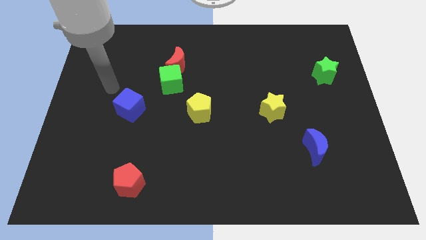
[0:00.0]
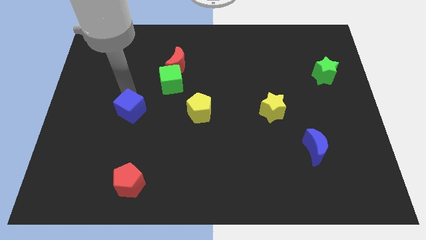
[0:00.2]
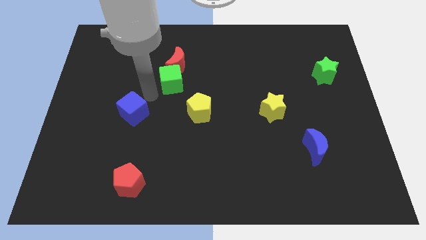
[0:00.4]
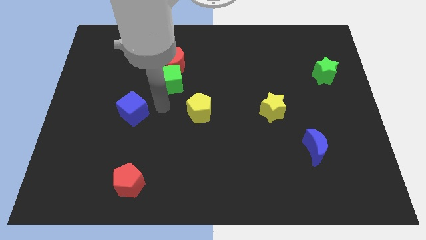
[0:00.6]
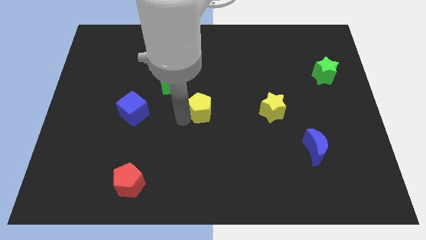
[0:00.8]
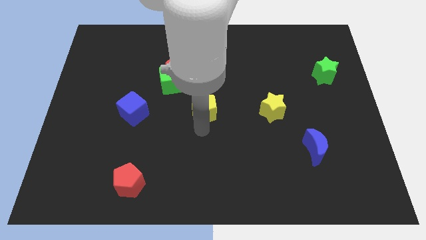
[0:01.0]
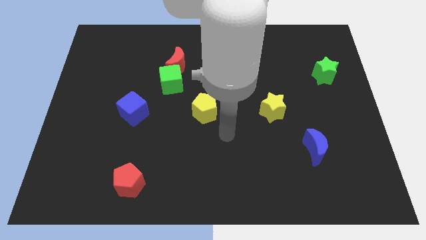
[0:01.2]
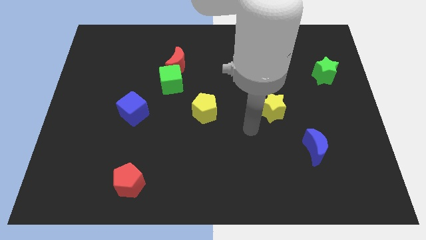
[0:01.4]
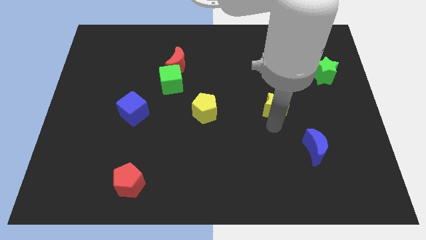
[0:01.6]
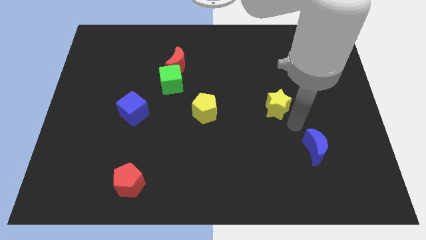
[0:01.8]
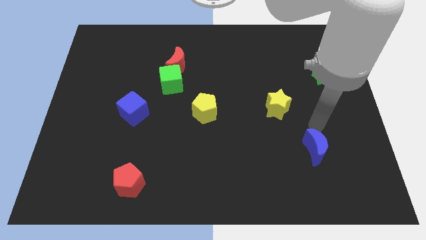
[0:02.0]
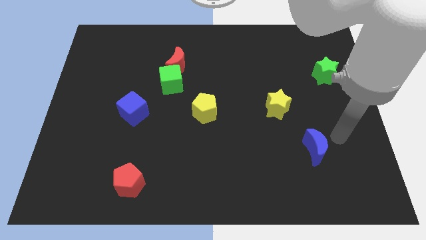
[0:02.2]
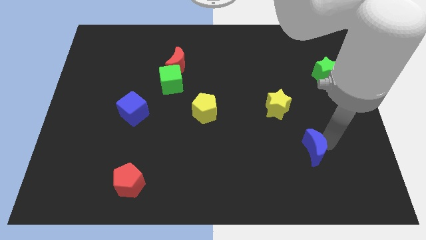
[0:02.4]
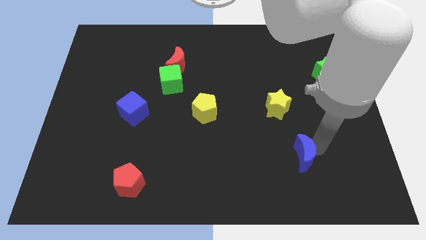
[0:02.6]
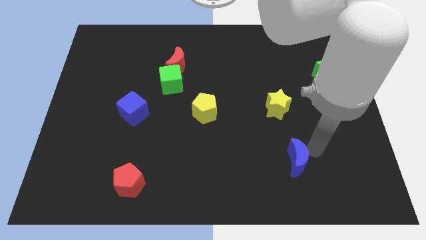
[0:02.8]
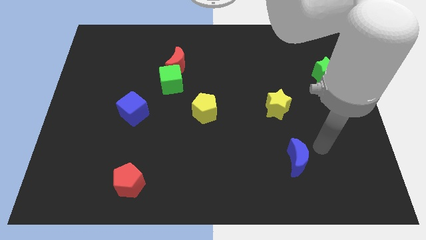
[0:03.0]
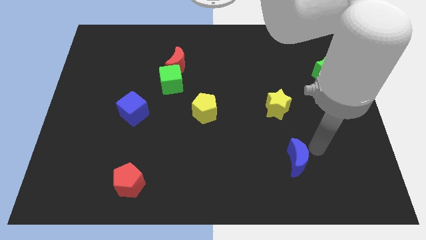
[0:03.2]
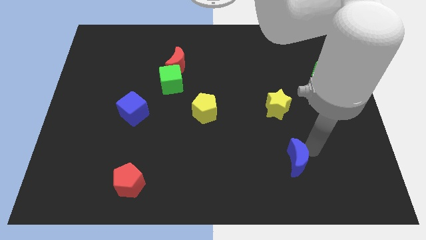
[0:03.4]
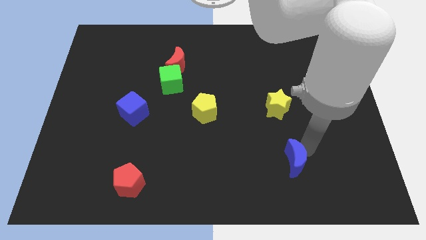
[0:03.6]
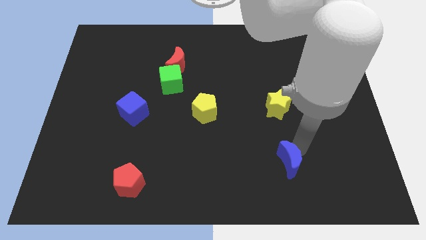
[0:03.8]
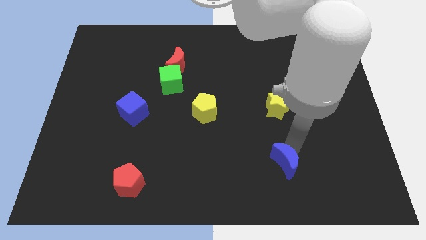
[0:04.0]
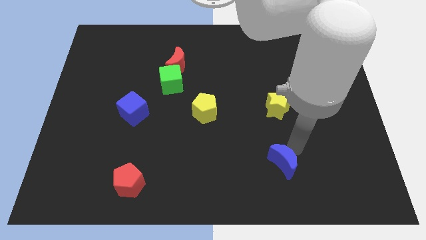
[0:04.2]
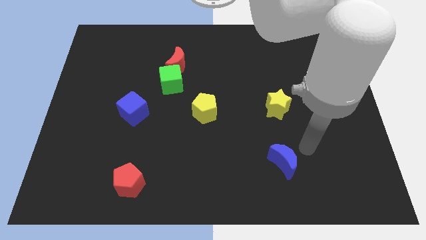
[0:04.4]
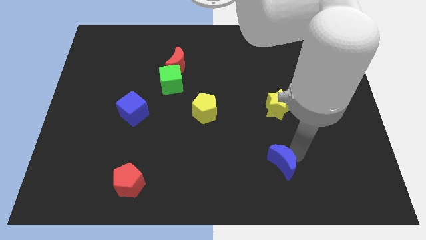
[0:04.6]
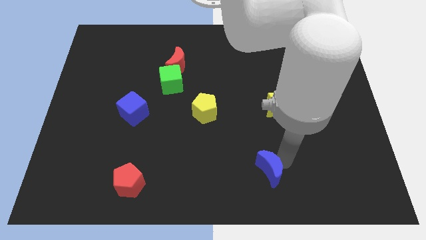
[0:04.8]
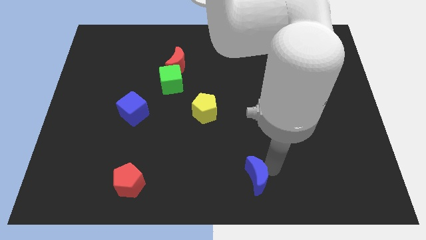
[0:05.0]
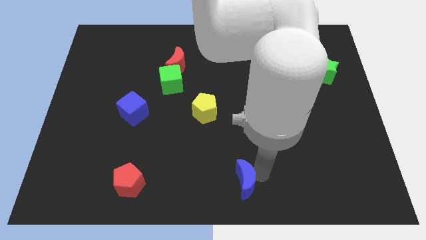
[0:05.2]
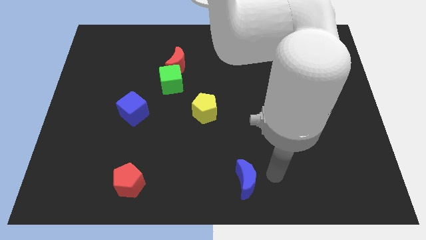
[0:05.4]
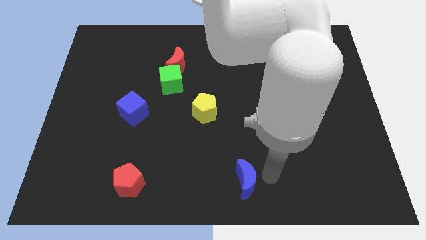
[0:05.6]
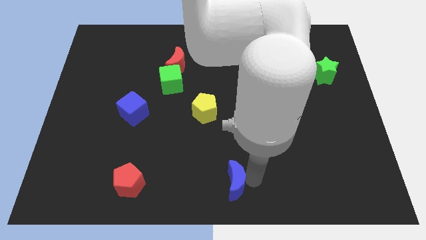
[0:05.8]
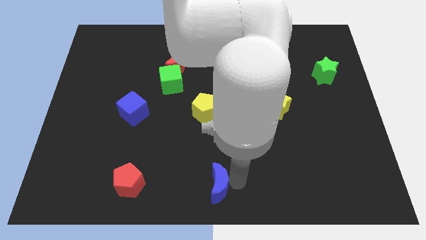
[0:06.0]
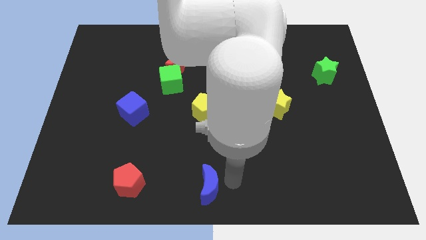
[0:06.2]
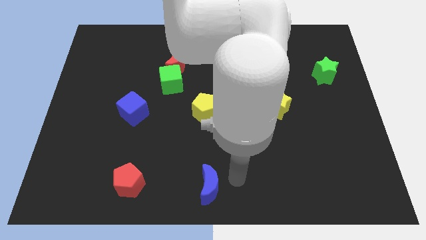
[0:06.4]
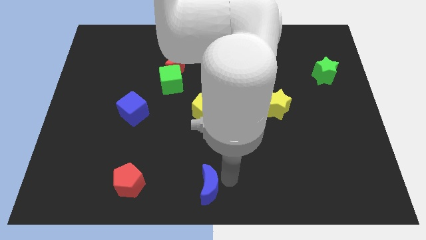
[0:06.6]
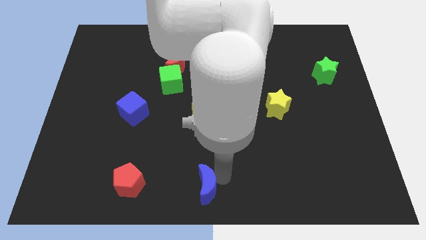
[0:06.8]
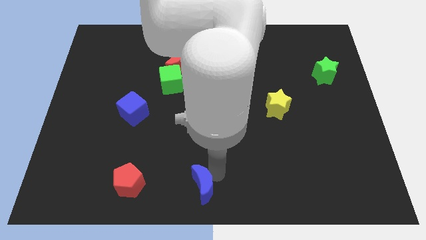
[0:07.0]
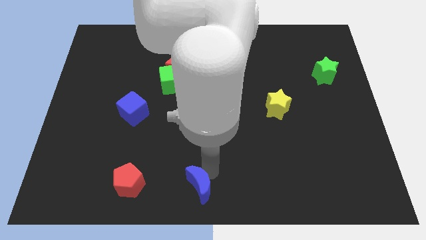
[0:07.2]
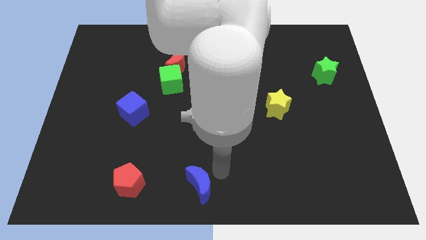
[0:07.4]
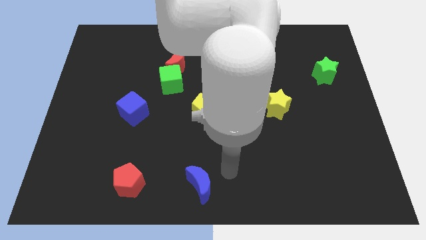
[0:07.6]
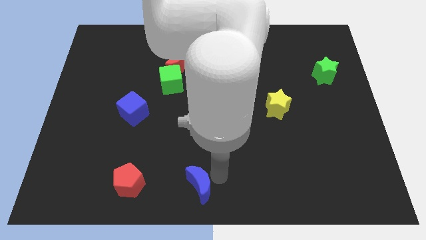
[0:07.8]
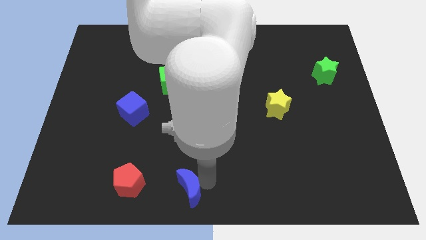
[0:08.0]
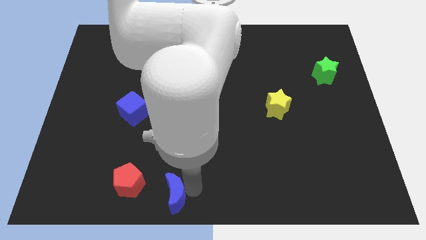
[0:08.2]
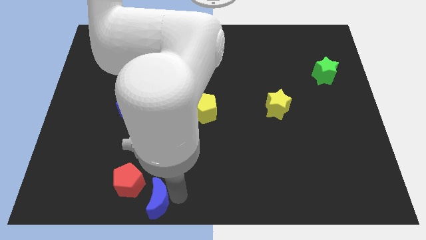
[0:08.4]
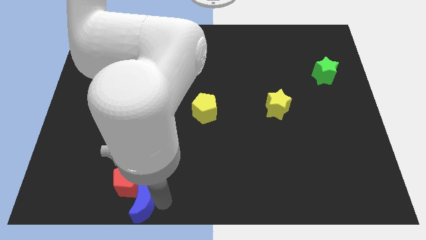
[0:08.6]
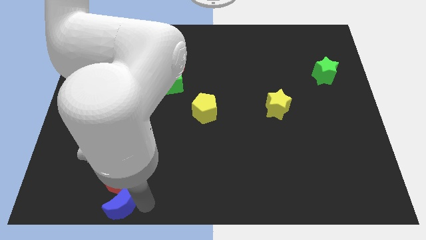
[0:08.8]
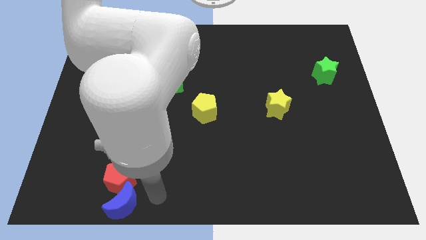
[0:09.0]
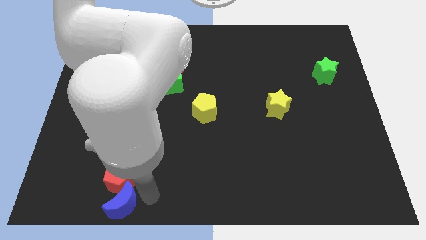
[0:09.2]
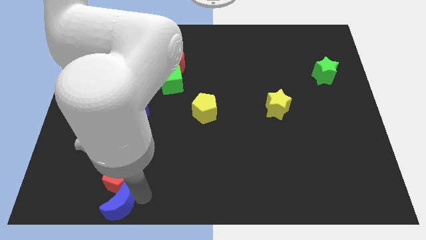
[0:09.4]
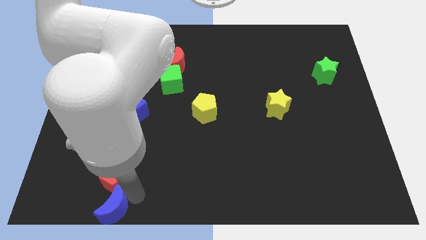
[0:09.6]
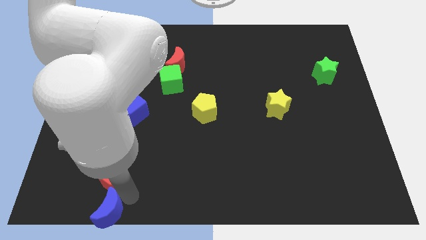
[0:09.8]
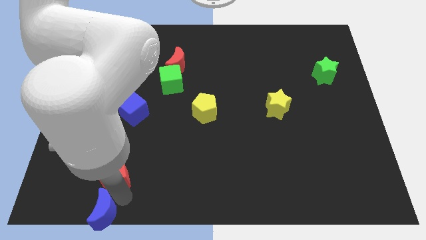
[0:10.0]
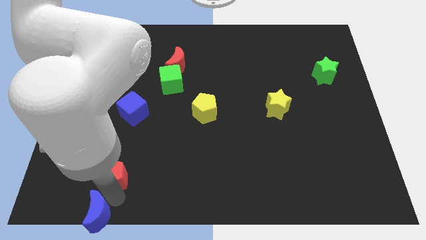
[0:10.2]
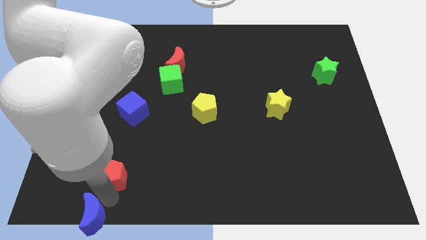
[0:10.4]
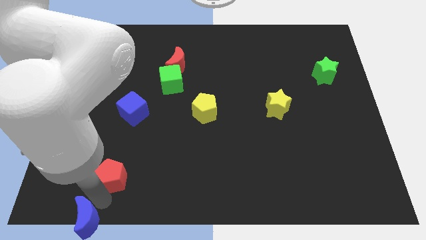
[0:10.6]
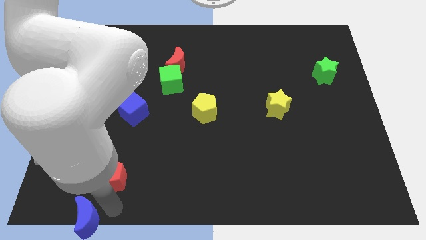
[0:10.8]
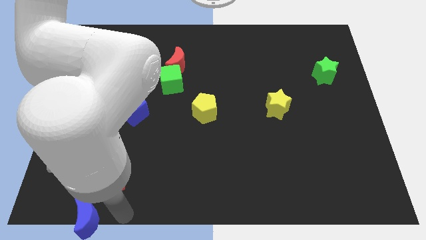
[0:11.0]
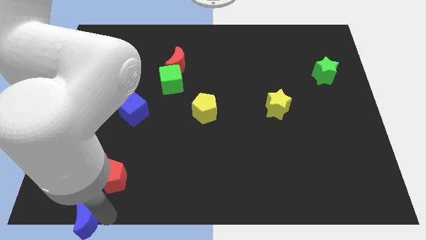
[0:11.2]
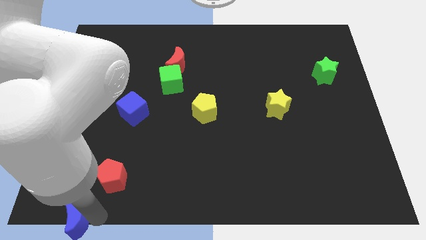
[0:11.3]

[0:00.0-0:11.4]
slide the blue moon to the lower left corner
